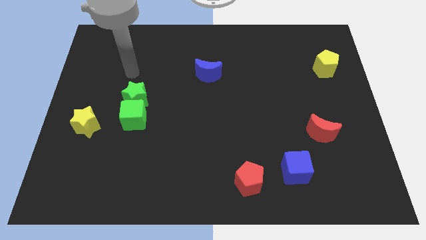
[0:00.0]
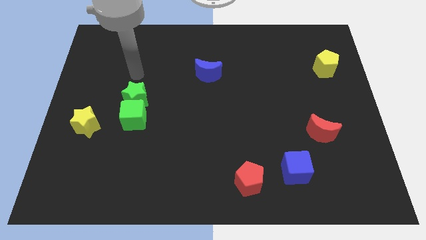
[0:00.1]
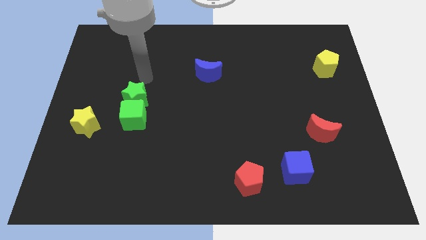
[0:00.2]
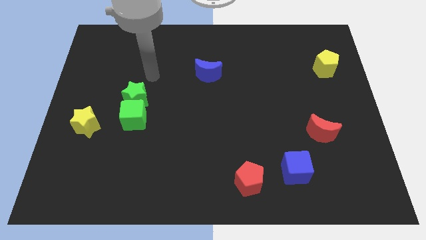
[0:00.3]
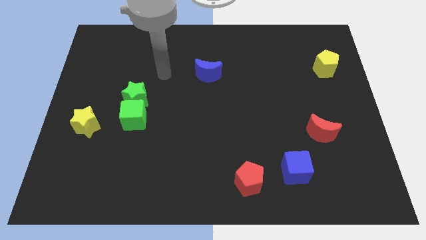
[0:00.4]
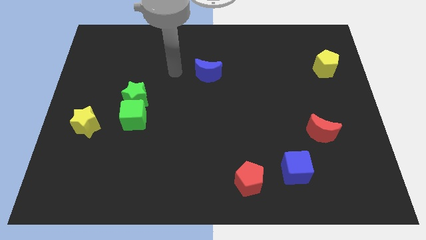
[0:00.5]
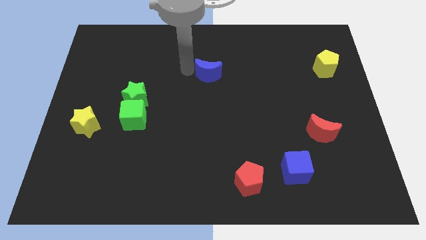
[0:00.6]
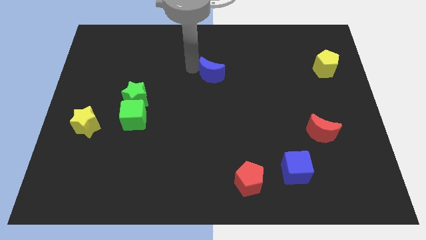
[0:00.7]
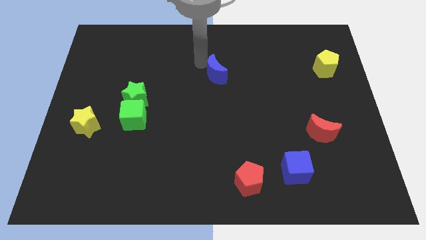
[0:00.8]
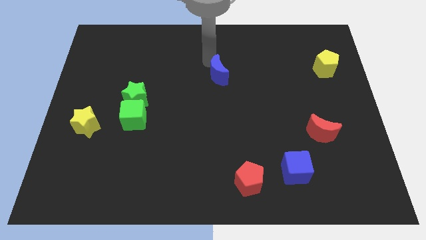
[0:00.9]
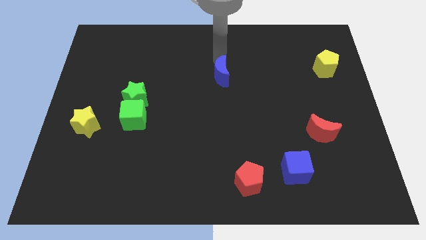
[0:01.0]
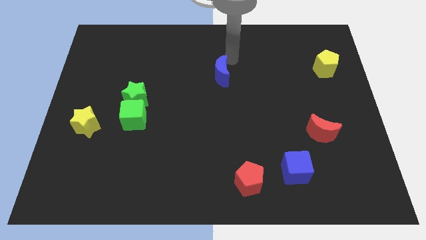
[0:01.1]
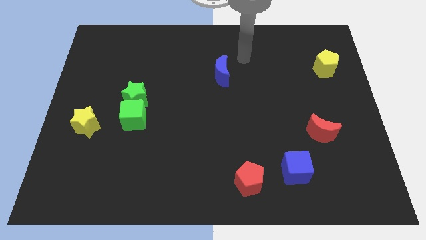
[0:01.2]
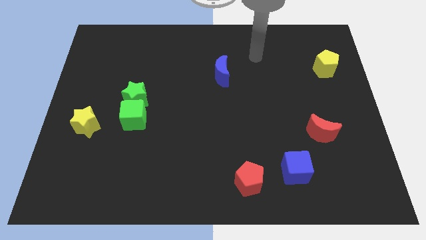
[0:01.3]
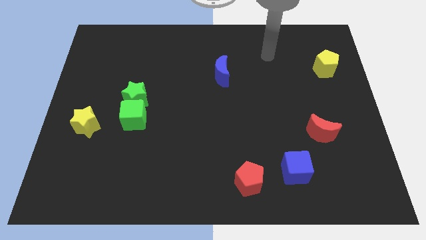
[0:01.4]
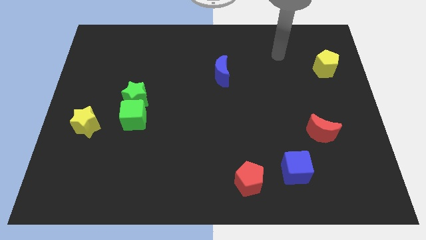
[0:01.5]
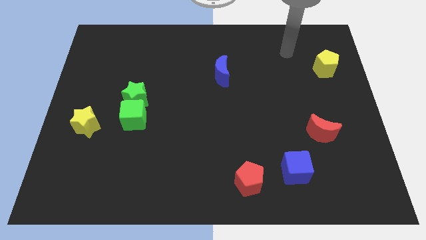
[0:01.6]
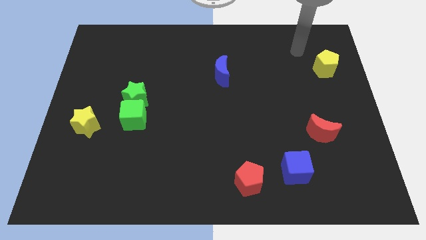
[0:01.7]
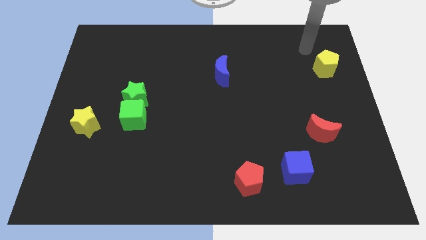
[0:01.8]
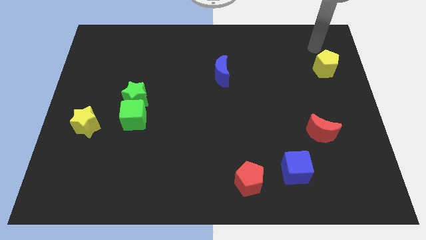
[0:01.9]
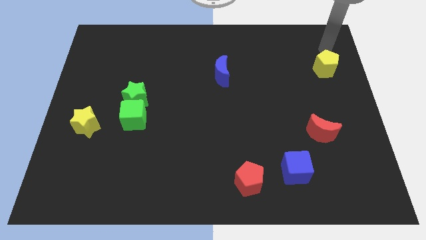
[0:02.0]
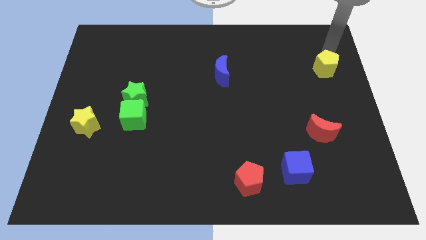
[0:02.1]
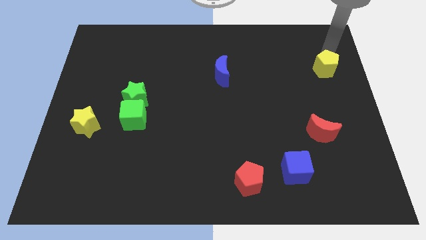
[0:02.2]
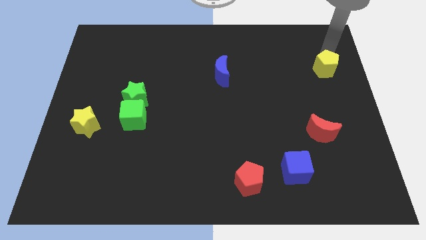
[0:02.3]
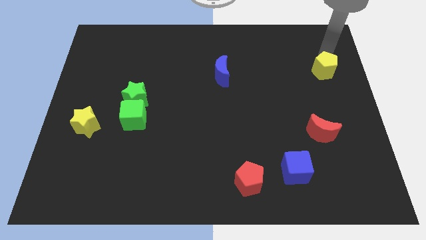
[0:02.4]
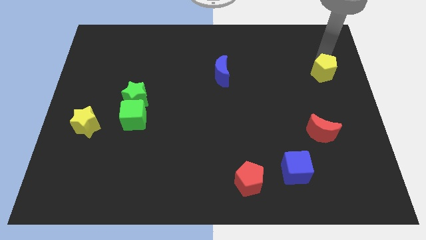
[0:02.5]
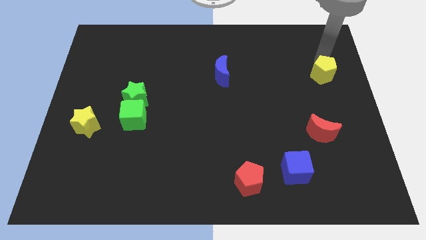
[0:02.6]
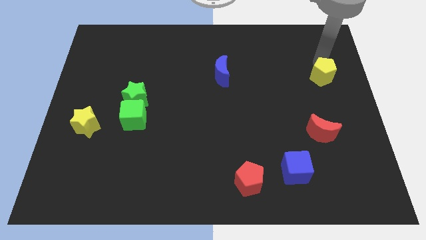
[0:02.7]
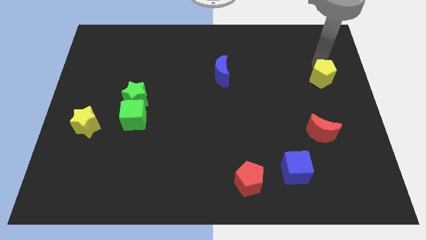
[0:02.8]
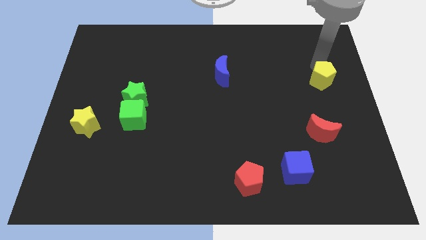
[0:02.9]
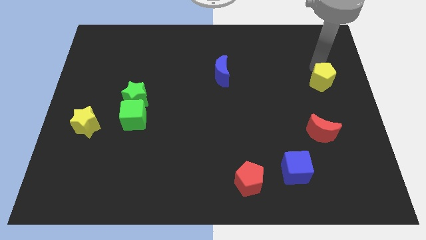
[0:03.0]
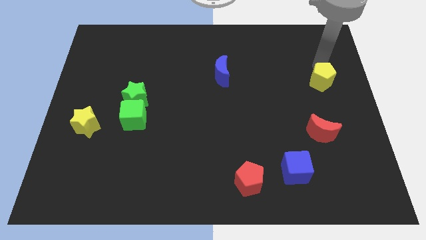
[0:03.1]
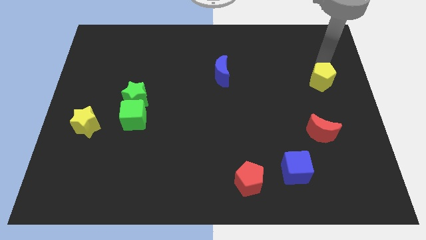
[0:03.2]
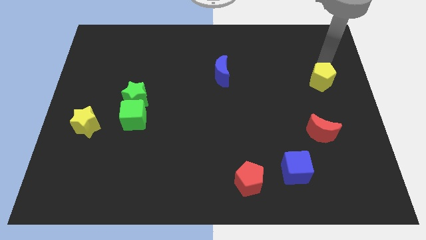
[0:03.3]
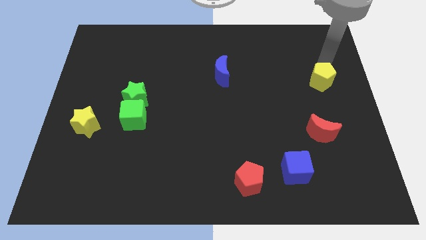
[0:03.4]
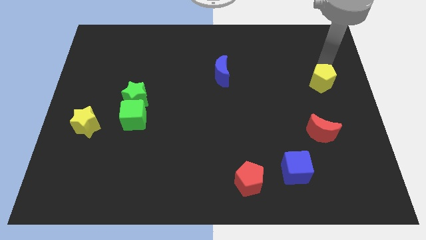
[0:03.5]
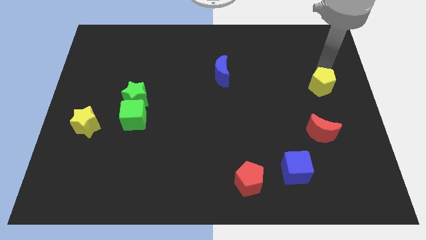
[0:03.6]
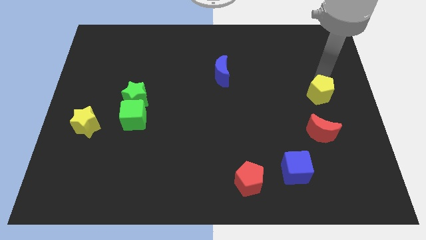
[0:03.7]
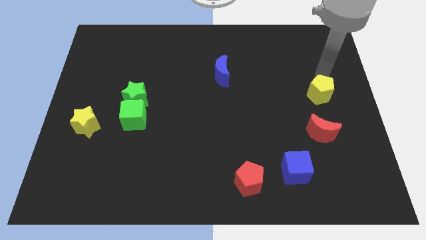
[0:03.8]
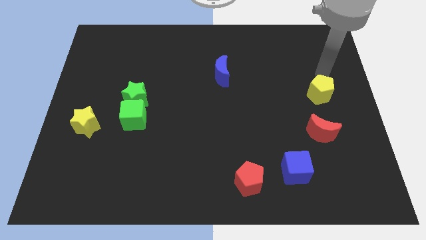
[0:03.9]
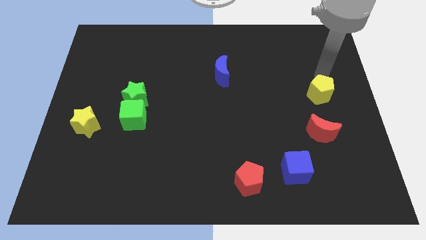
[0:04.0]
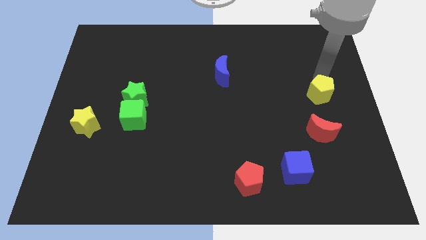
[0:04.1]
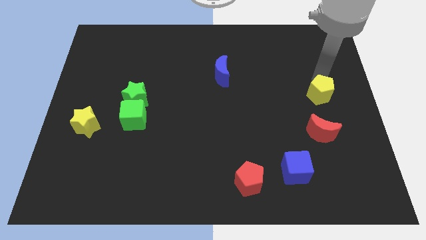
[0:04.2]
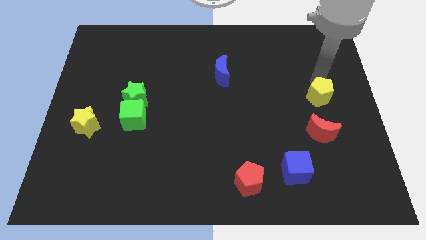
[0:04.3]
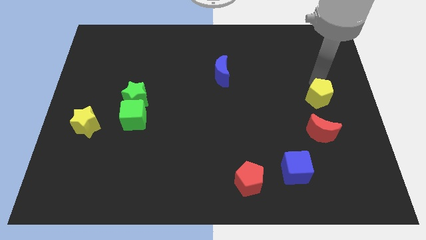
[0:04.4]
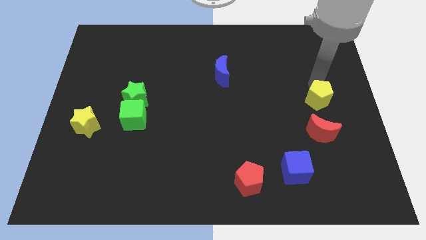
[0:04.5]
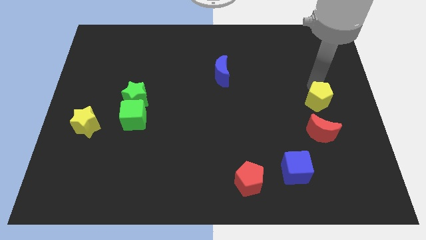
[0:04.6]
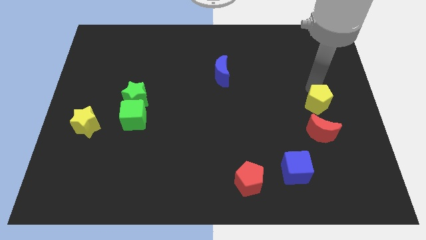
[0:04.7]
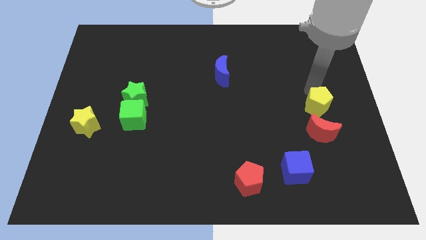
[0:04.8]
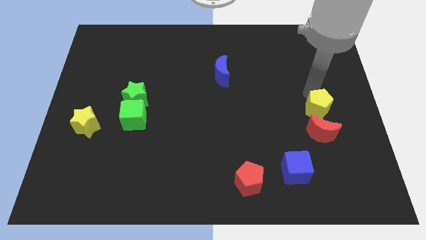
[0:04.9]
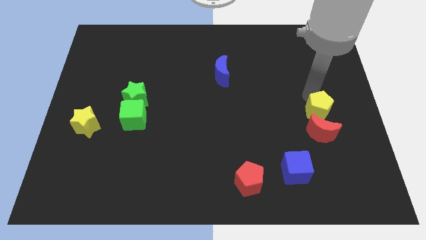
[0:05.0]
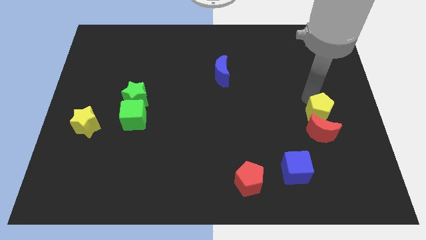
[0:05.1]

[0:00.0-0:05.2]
slide the yellow pentagon to the red moon

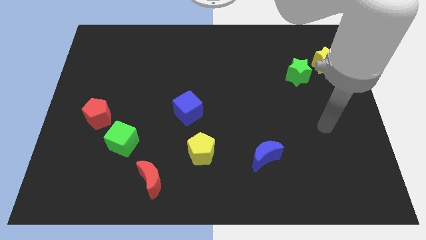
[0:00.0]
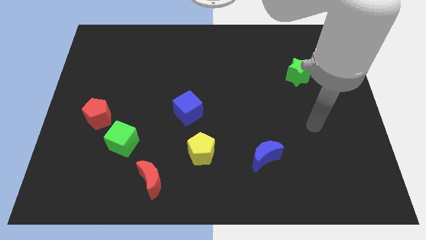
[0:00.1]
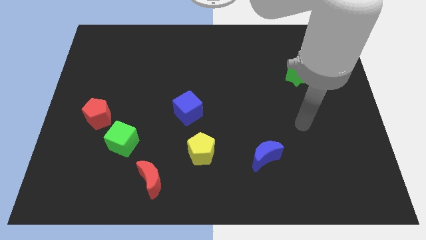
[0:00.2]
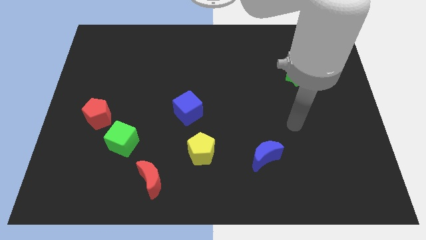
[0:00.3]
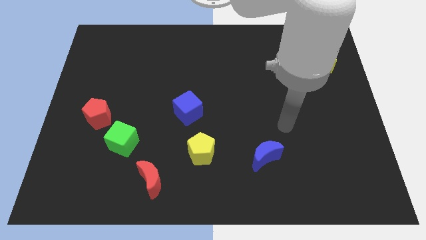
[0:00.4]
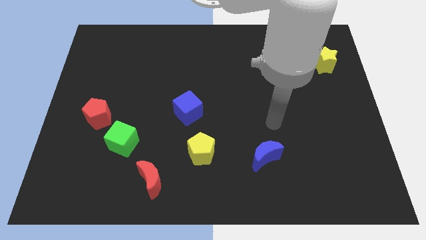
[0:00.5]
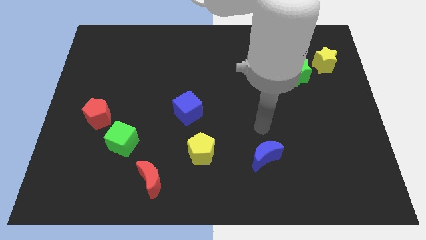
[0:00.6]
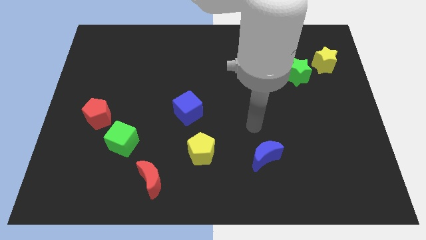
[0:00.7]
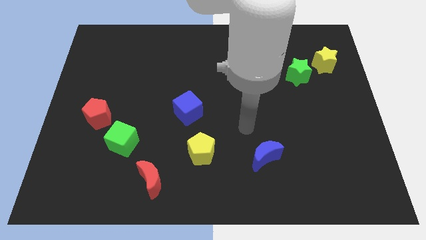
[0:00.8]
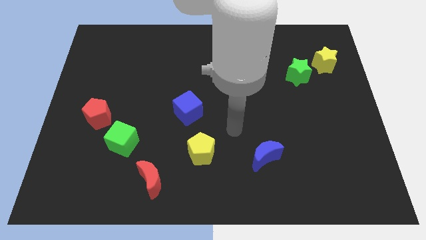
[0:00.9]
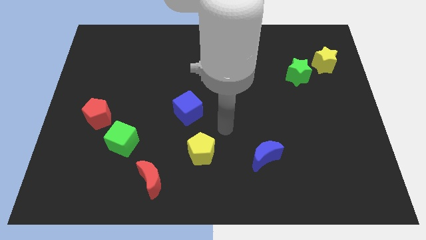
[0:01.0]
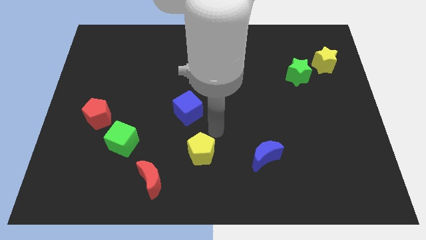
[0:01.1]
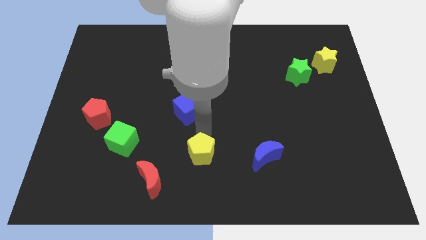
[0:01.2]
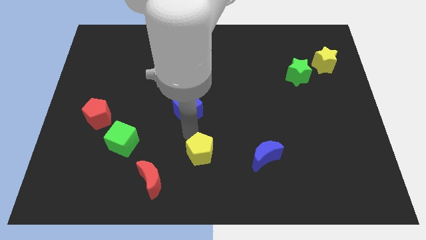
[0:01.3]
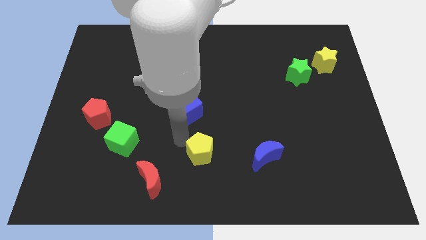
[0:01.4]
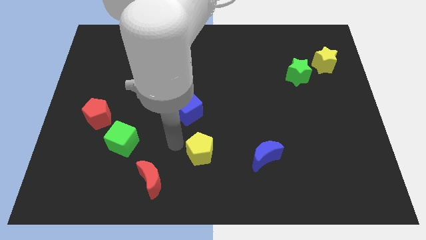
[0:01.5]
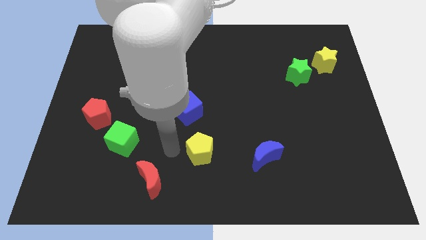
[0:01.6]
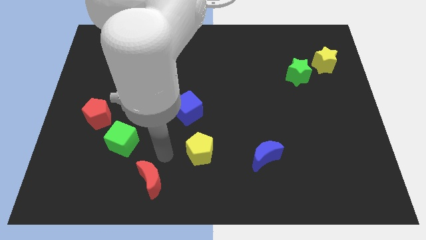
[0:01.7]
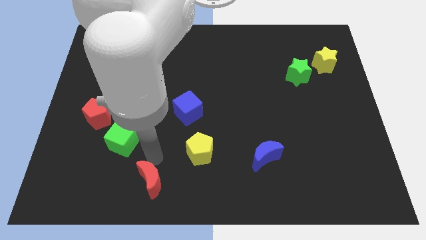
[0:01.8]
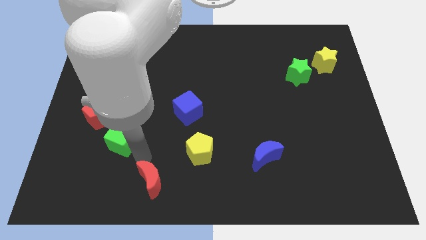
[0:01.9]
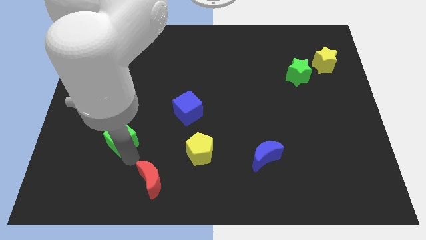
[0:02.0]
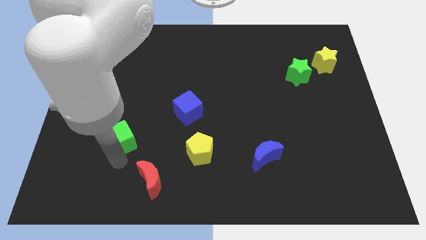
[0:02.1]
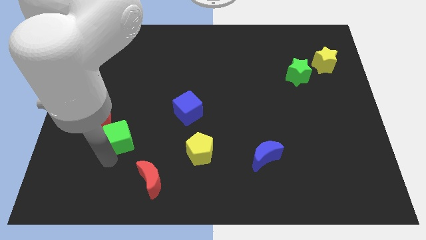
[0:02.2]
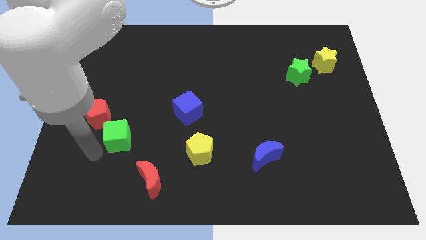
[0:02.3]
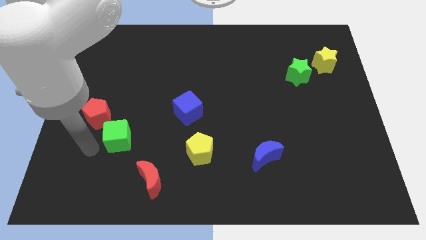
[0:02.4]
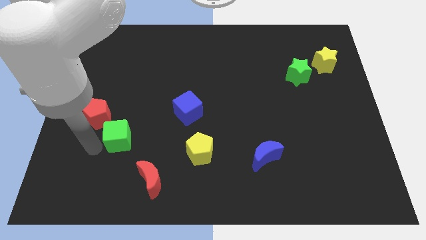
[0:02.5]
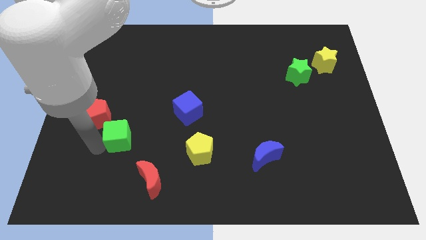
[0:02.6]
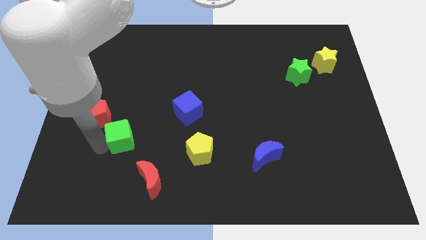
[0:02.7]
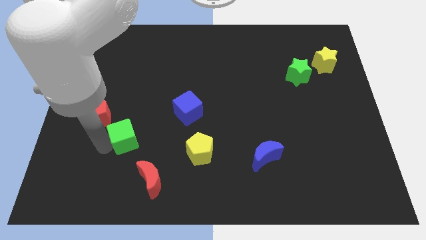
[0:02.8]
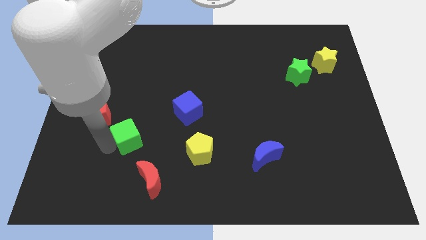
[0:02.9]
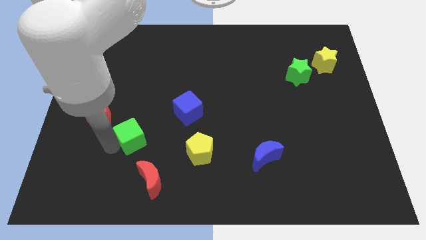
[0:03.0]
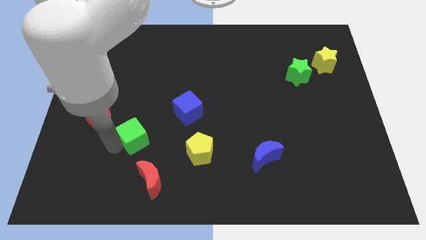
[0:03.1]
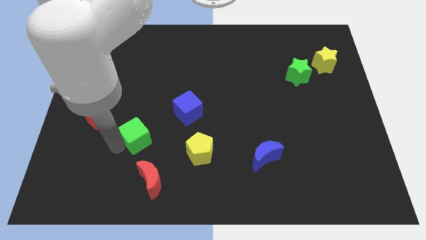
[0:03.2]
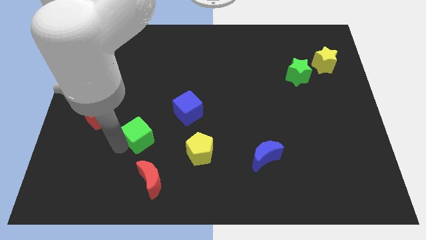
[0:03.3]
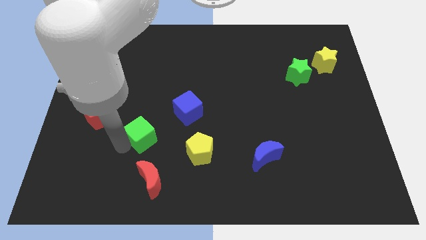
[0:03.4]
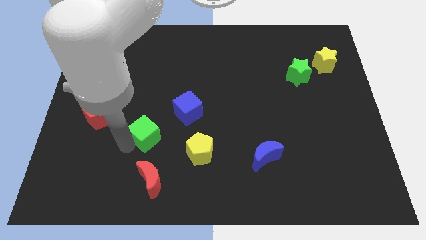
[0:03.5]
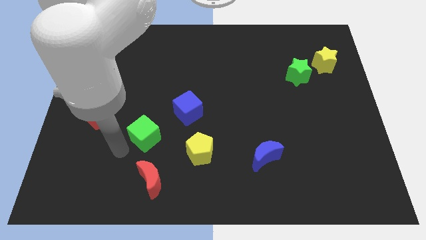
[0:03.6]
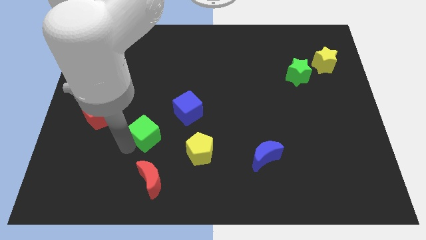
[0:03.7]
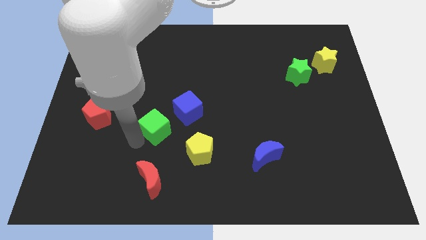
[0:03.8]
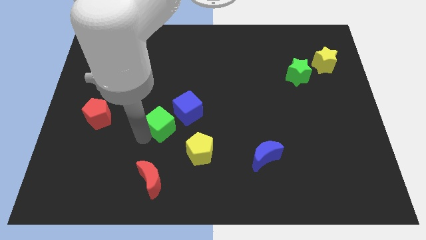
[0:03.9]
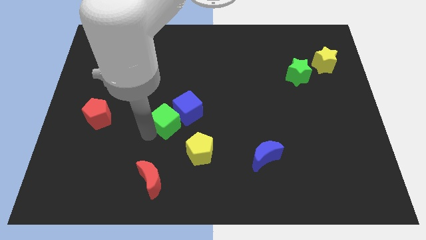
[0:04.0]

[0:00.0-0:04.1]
slide the green cube to the blue cube
